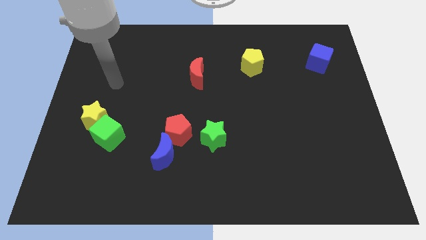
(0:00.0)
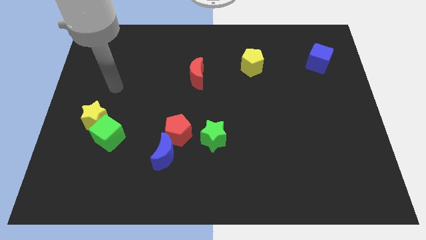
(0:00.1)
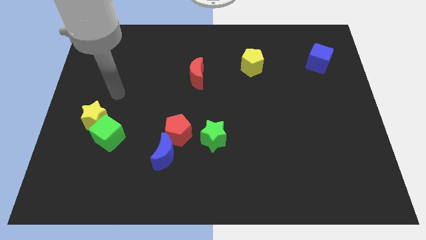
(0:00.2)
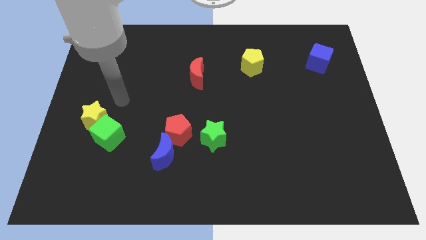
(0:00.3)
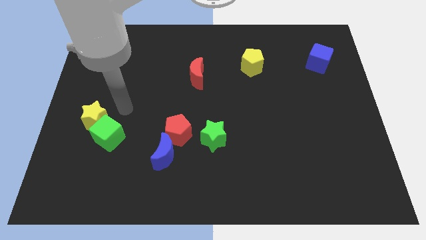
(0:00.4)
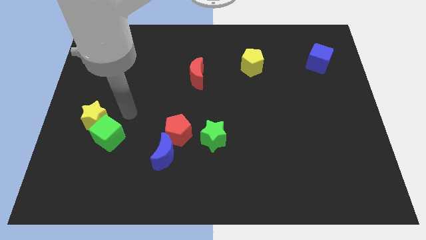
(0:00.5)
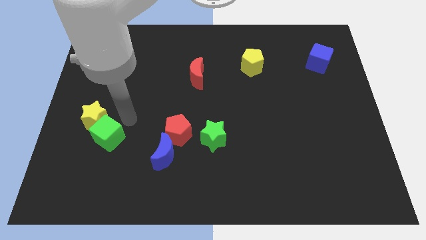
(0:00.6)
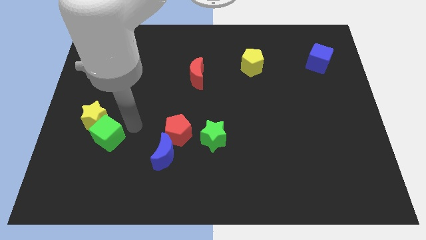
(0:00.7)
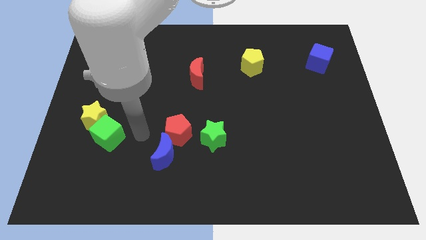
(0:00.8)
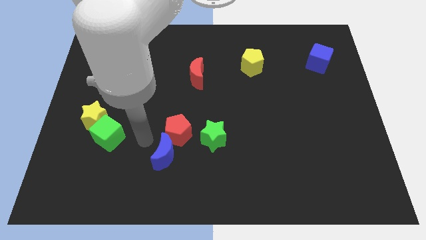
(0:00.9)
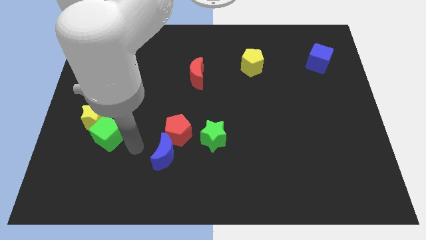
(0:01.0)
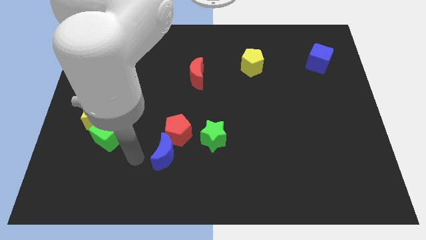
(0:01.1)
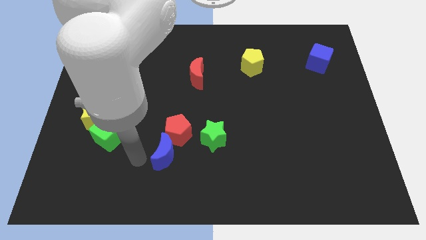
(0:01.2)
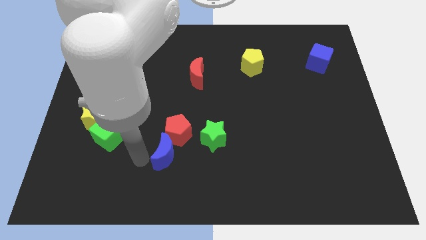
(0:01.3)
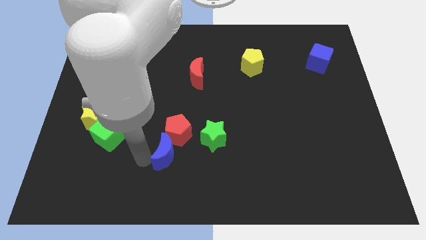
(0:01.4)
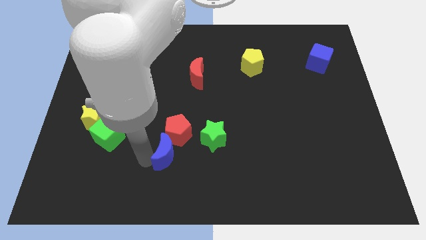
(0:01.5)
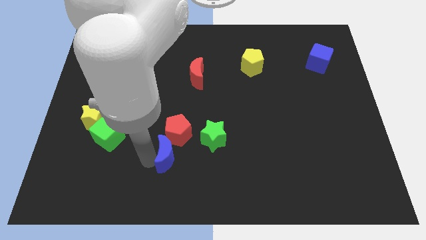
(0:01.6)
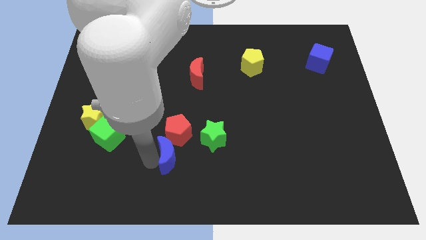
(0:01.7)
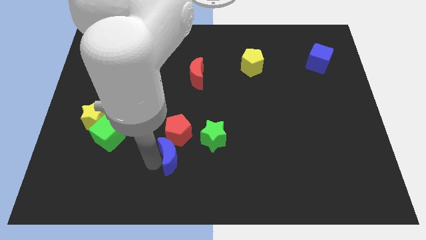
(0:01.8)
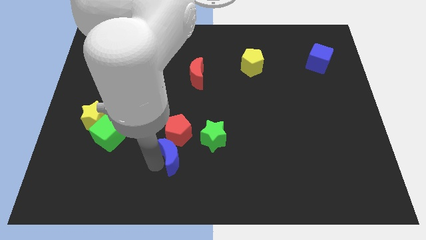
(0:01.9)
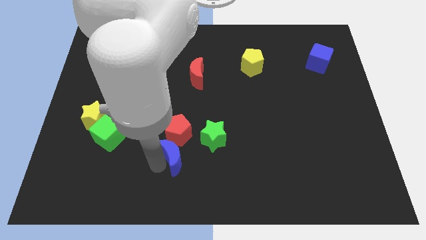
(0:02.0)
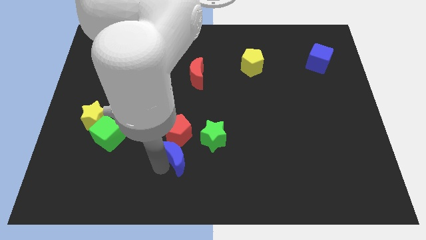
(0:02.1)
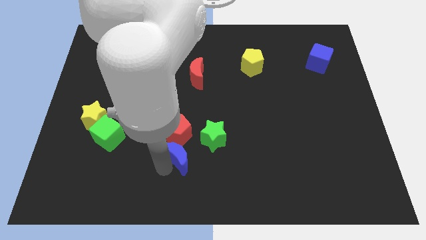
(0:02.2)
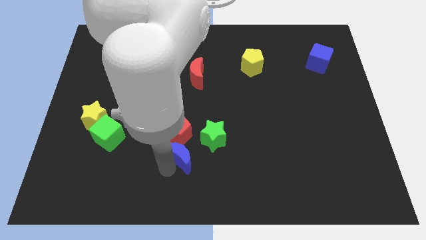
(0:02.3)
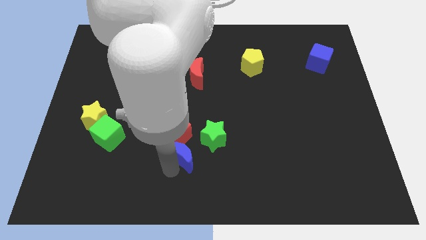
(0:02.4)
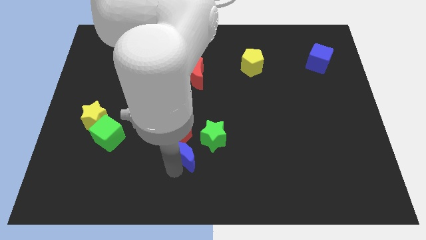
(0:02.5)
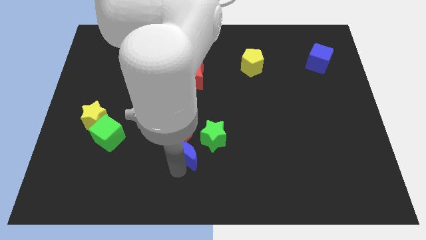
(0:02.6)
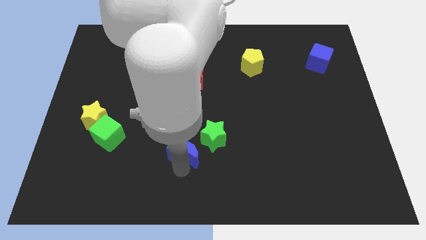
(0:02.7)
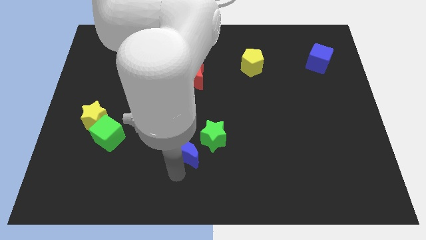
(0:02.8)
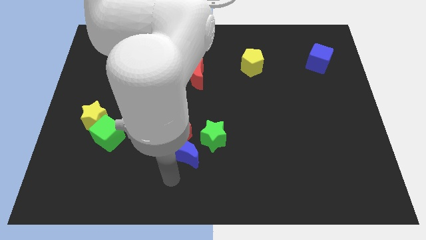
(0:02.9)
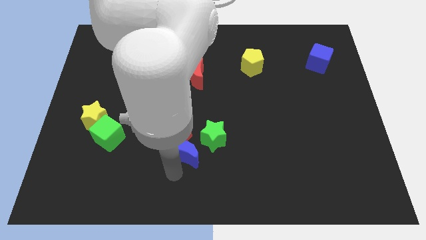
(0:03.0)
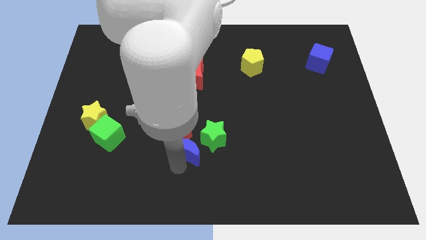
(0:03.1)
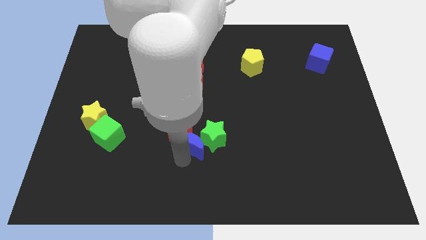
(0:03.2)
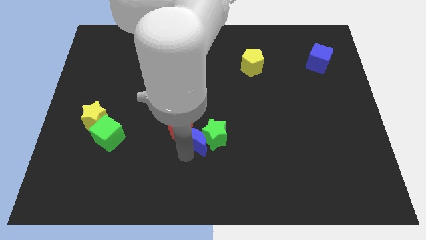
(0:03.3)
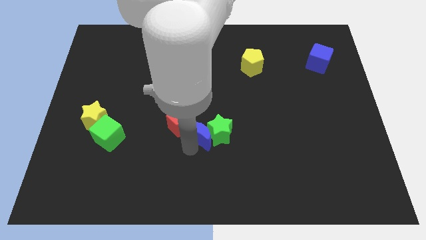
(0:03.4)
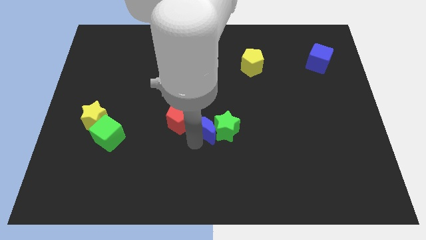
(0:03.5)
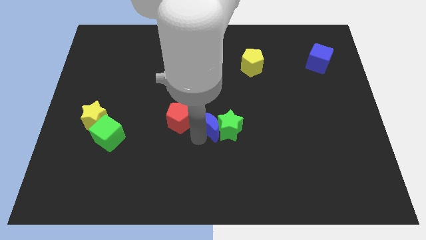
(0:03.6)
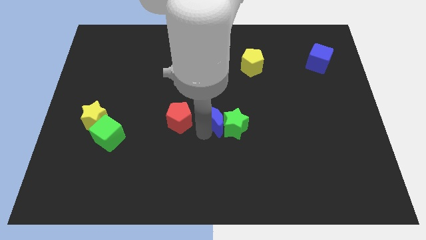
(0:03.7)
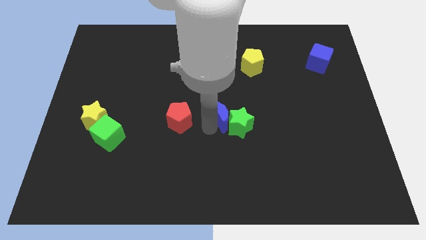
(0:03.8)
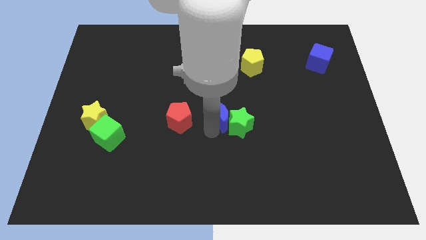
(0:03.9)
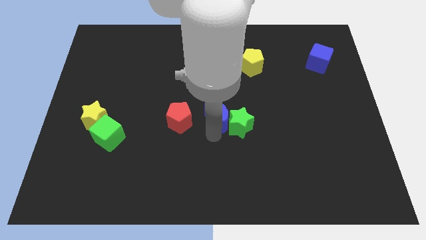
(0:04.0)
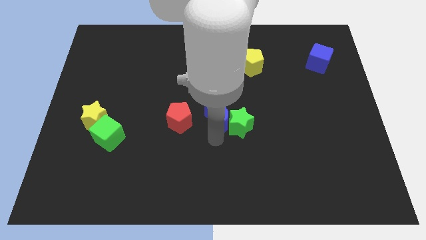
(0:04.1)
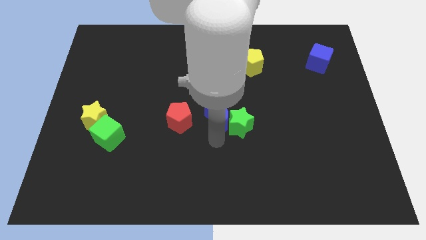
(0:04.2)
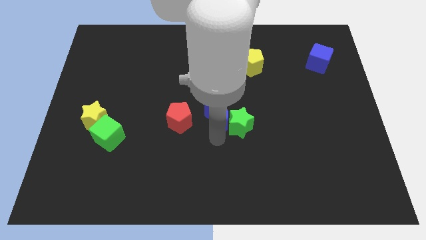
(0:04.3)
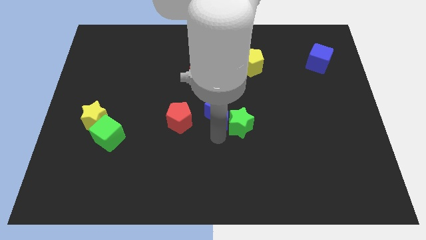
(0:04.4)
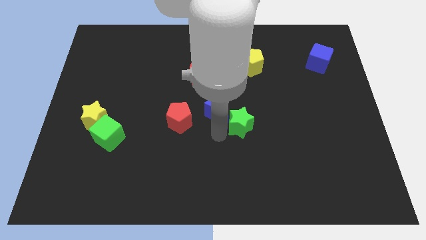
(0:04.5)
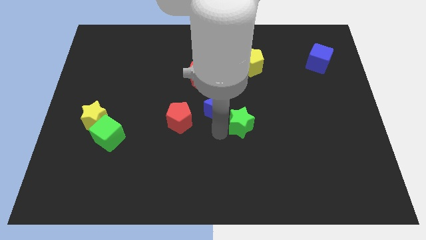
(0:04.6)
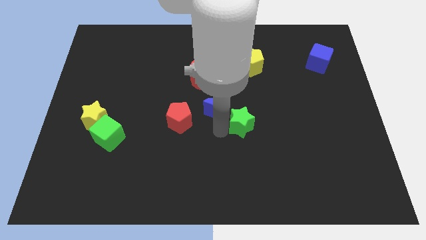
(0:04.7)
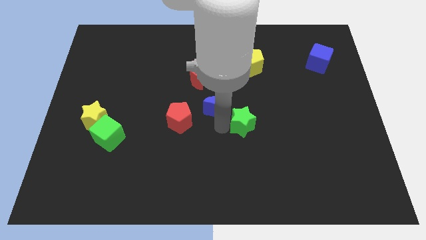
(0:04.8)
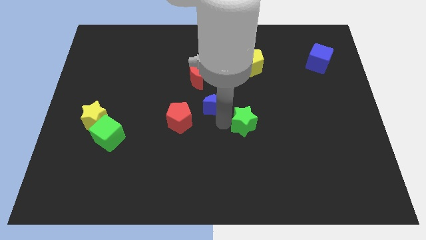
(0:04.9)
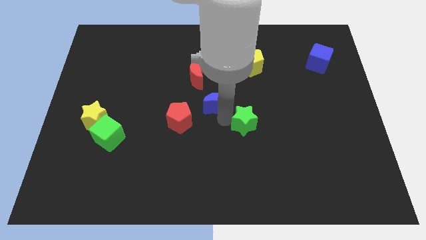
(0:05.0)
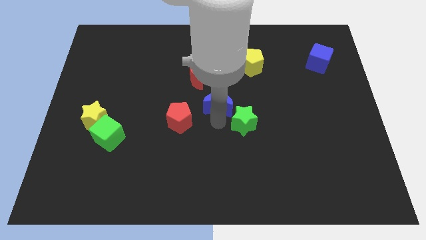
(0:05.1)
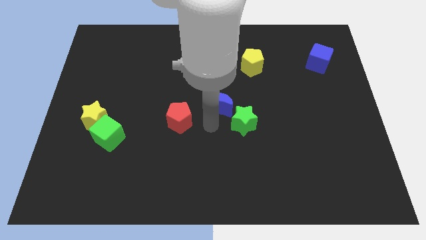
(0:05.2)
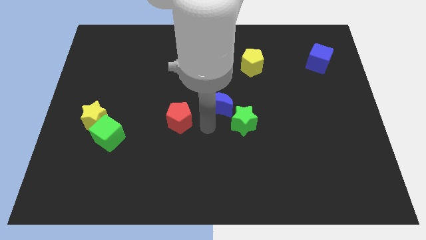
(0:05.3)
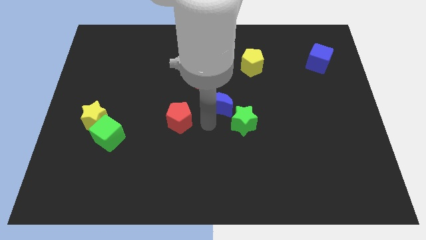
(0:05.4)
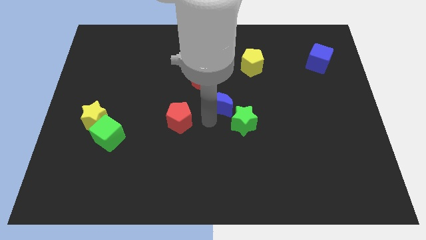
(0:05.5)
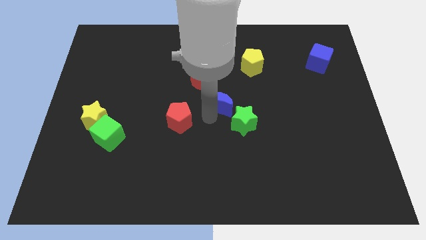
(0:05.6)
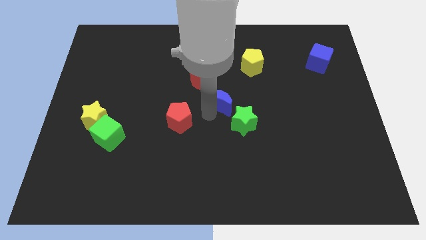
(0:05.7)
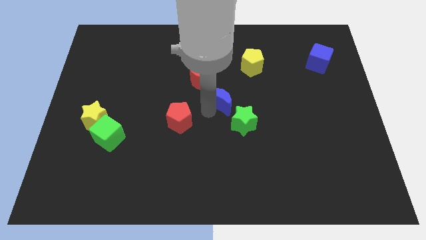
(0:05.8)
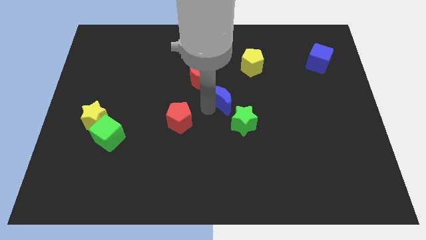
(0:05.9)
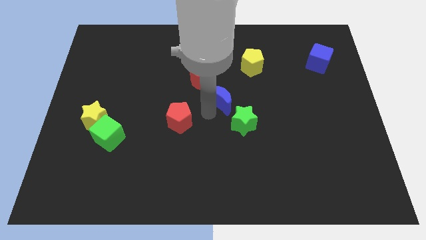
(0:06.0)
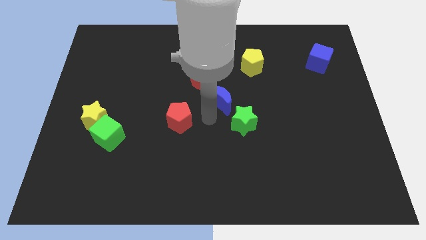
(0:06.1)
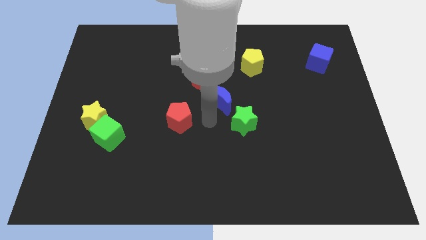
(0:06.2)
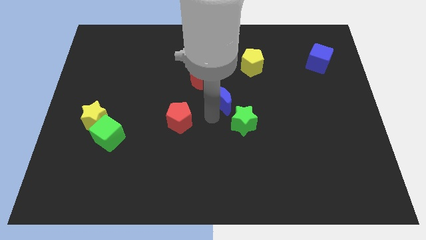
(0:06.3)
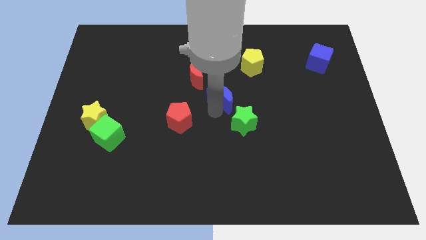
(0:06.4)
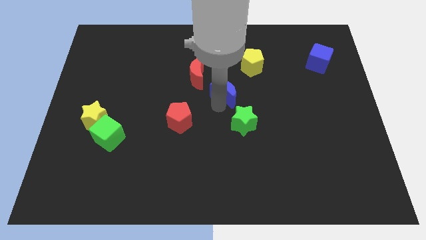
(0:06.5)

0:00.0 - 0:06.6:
put the blue moon to the bottom left side of the yellow pentagon

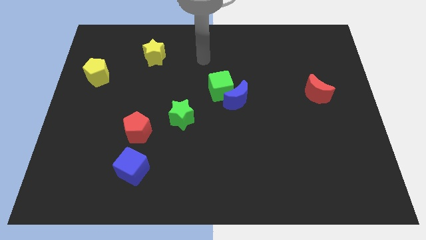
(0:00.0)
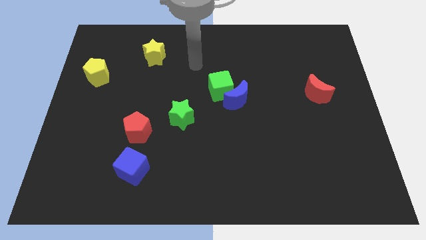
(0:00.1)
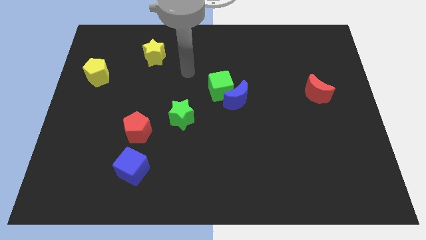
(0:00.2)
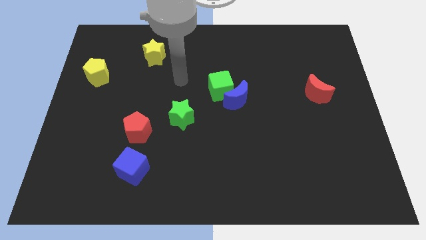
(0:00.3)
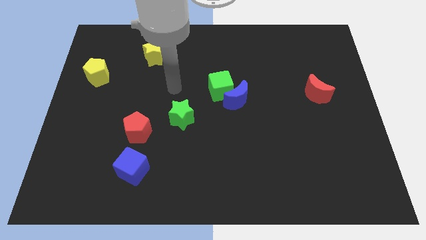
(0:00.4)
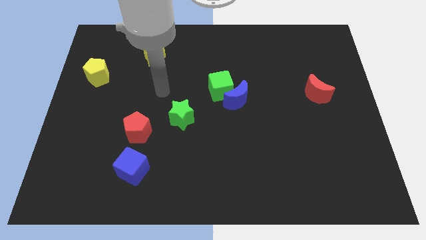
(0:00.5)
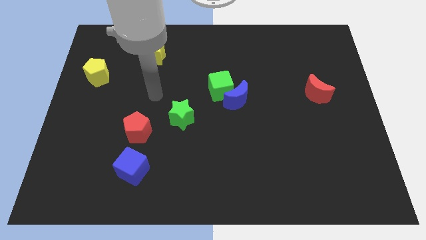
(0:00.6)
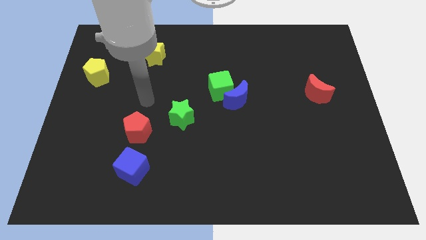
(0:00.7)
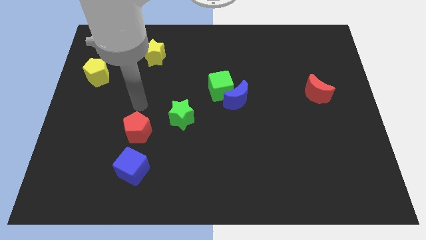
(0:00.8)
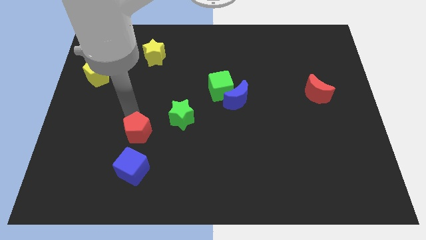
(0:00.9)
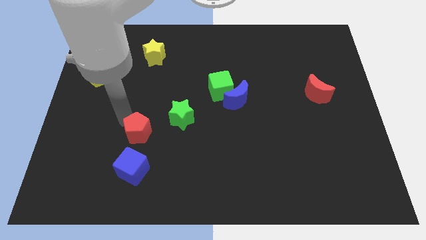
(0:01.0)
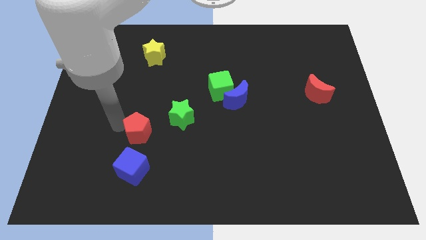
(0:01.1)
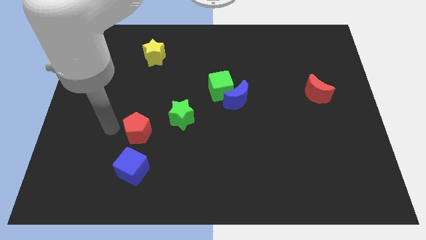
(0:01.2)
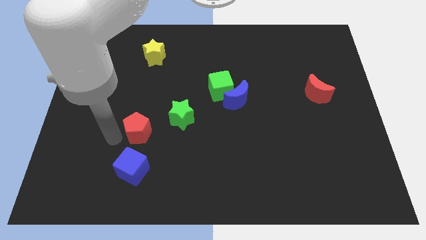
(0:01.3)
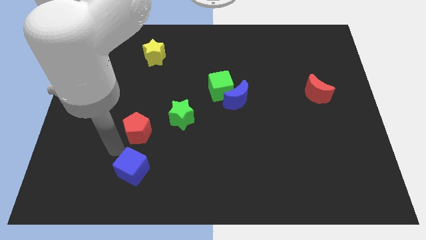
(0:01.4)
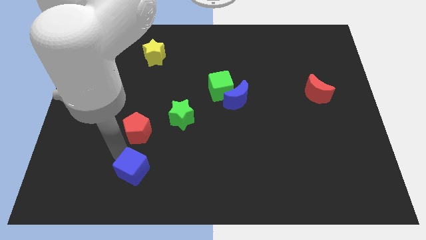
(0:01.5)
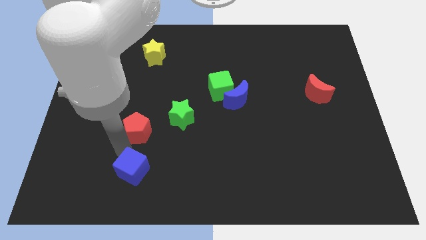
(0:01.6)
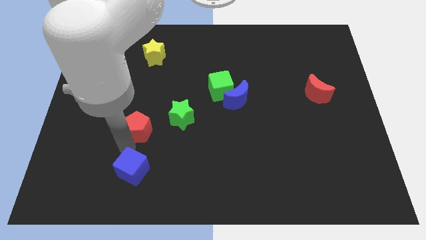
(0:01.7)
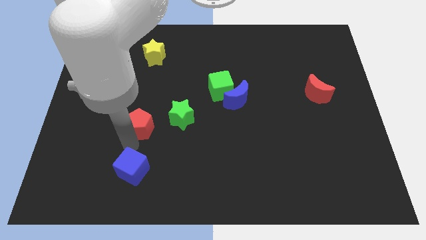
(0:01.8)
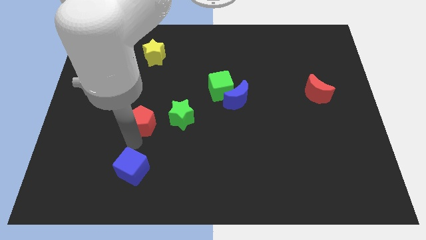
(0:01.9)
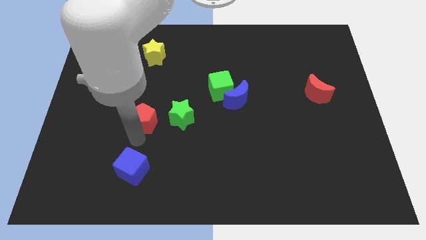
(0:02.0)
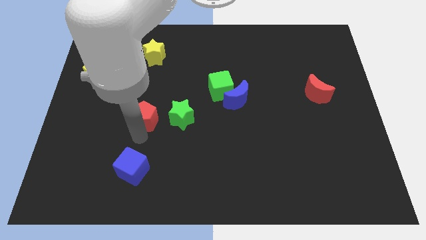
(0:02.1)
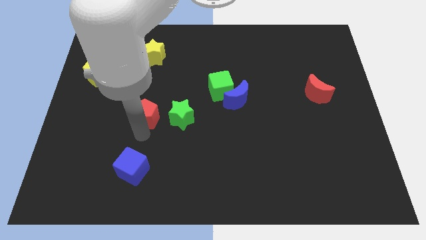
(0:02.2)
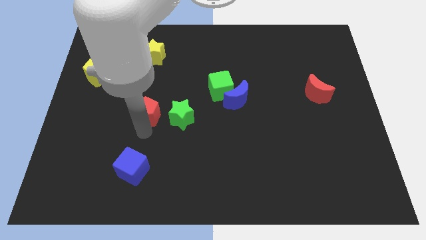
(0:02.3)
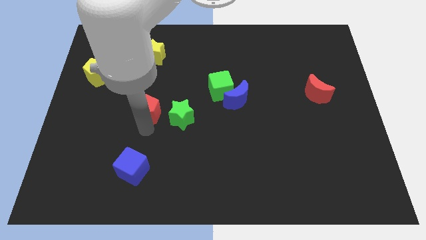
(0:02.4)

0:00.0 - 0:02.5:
move the red pentagon to the top left side of the green star
